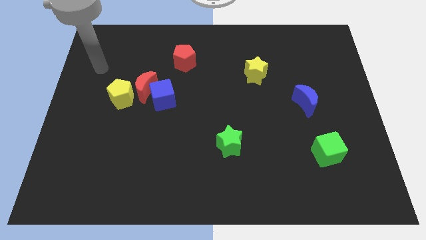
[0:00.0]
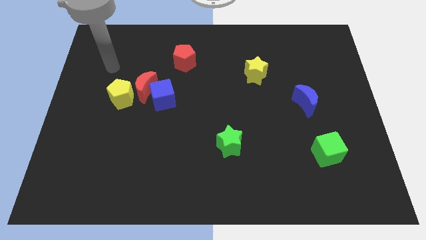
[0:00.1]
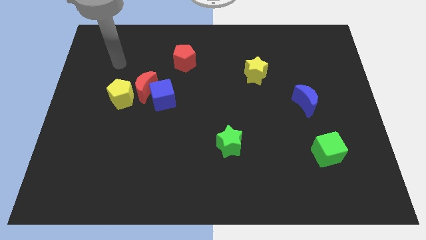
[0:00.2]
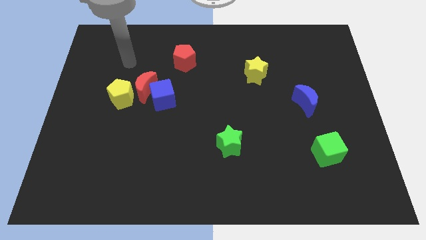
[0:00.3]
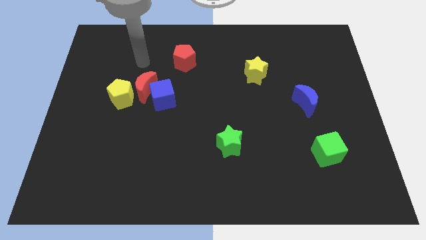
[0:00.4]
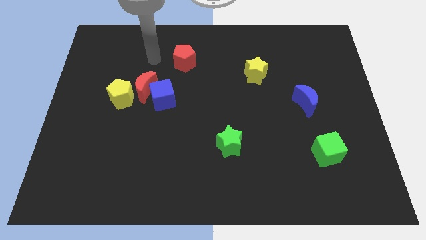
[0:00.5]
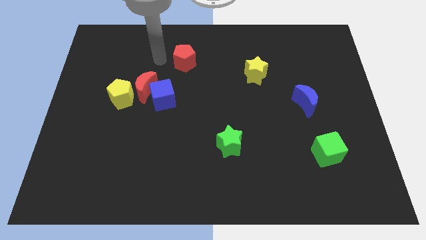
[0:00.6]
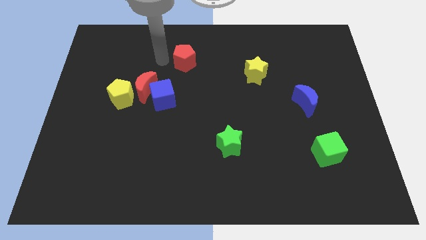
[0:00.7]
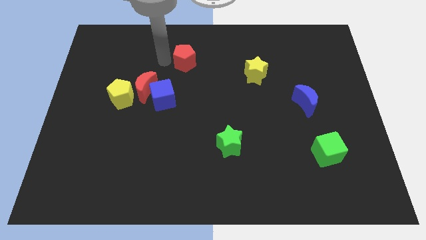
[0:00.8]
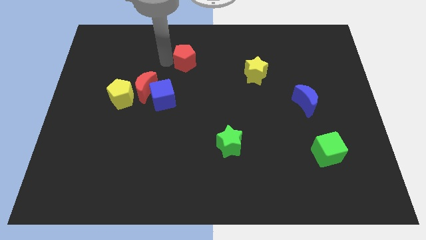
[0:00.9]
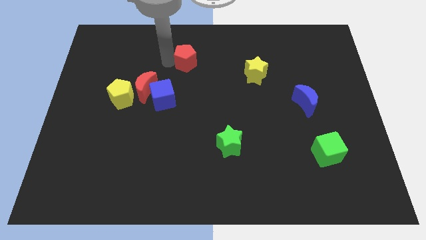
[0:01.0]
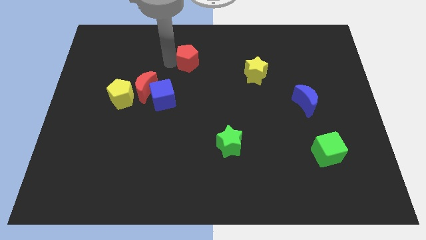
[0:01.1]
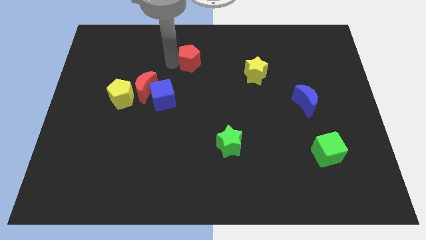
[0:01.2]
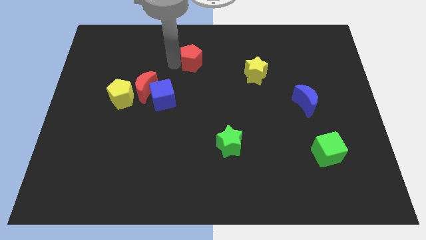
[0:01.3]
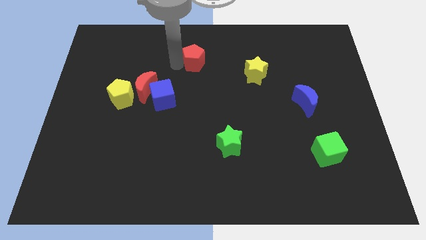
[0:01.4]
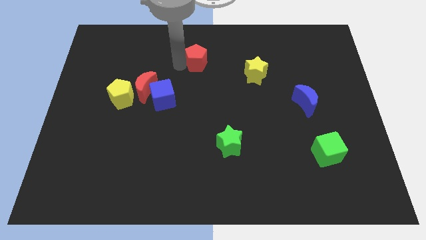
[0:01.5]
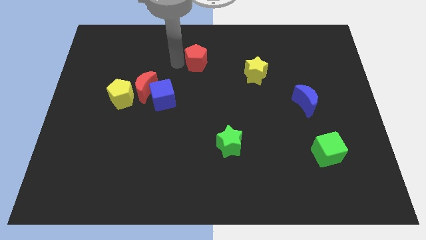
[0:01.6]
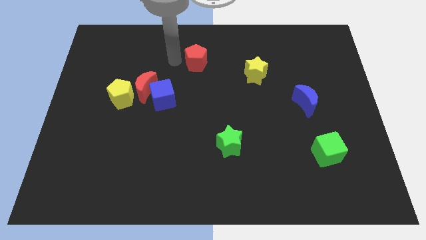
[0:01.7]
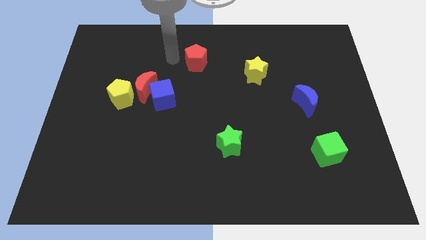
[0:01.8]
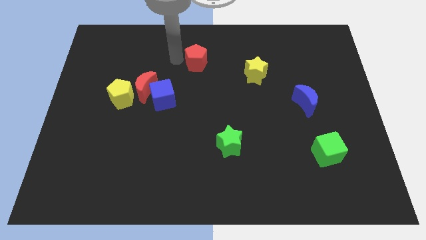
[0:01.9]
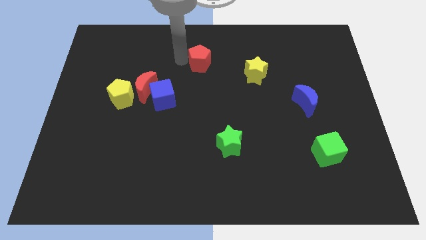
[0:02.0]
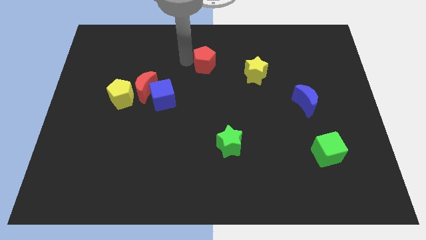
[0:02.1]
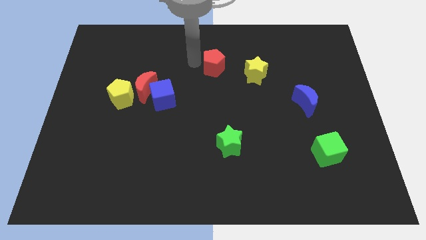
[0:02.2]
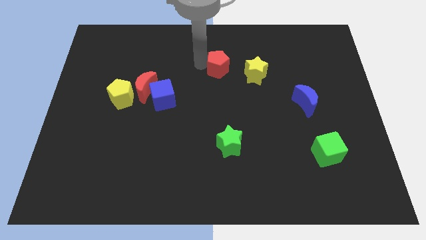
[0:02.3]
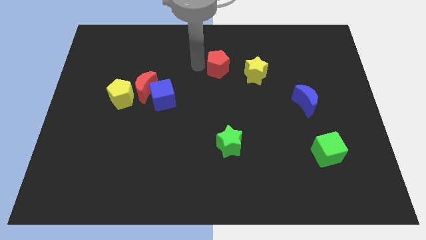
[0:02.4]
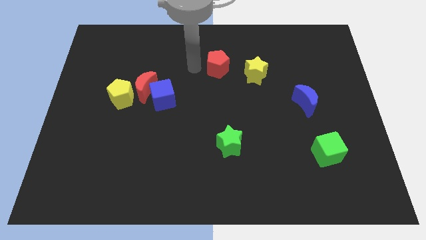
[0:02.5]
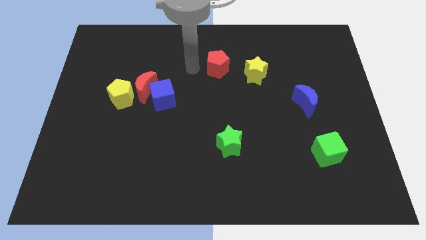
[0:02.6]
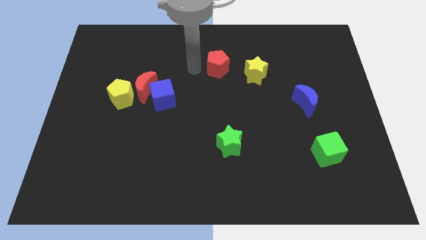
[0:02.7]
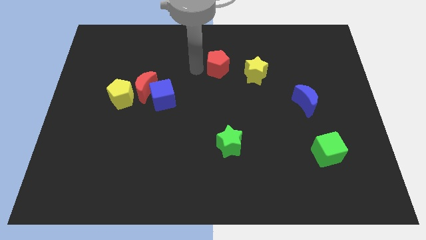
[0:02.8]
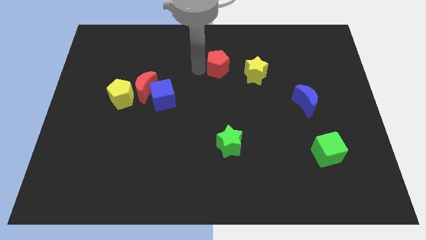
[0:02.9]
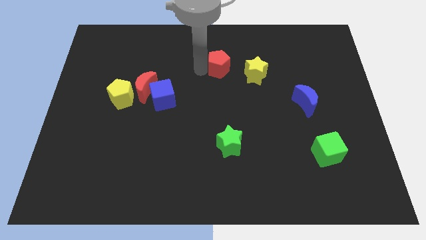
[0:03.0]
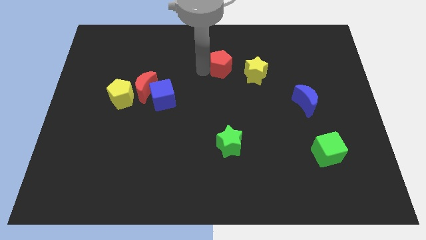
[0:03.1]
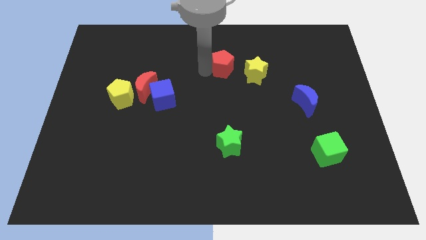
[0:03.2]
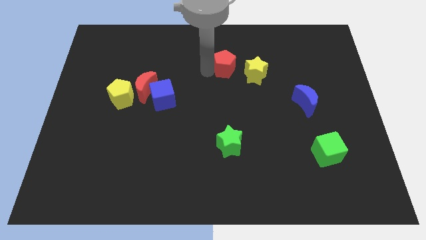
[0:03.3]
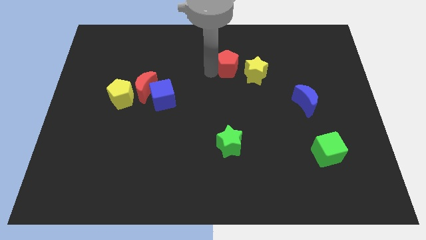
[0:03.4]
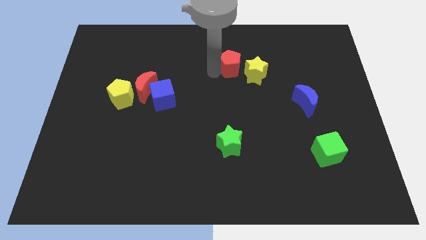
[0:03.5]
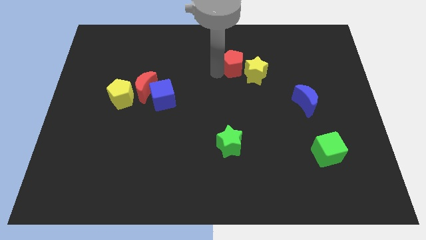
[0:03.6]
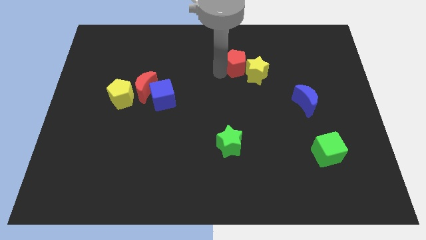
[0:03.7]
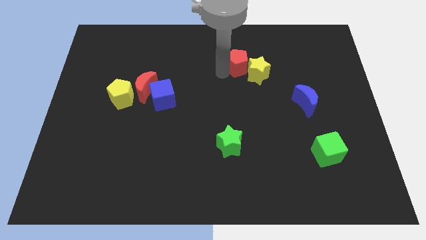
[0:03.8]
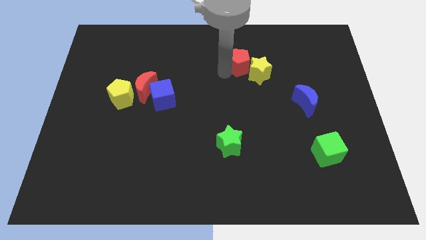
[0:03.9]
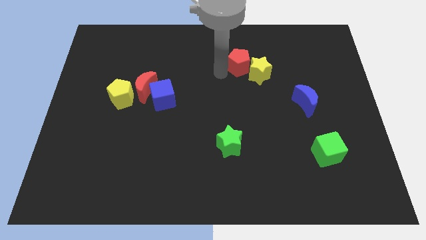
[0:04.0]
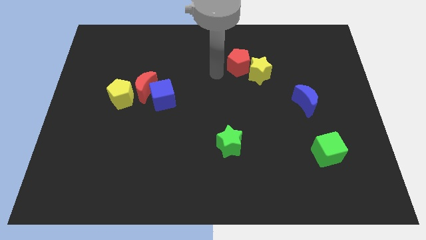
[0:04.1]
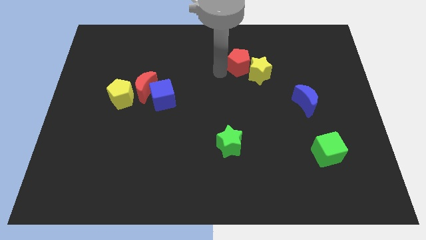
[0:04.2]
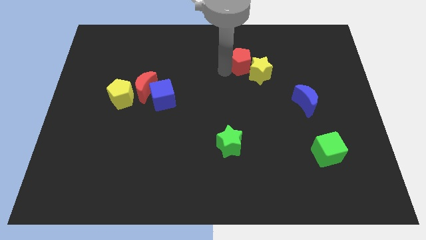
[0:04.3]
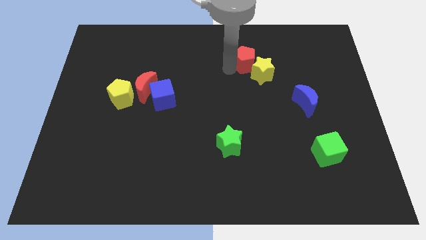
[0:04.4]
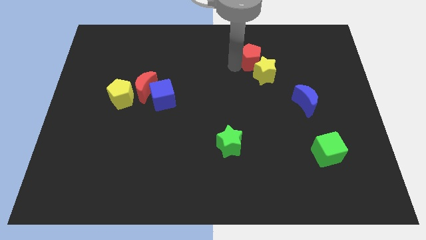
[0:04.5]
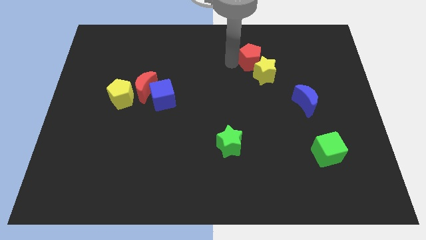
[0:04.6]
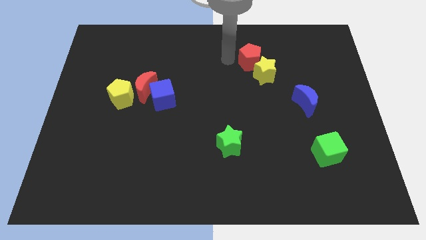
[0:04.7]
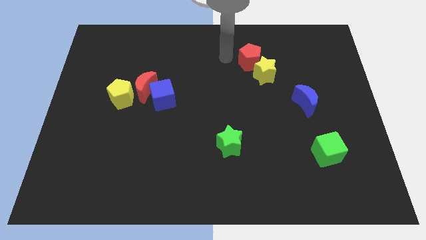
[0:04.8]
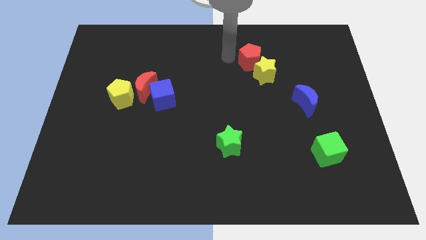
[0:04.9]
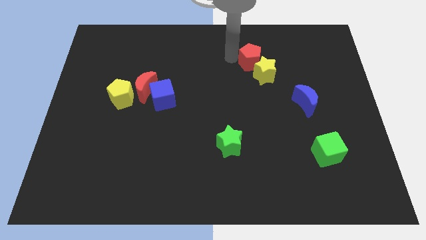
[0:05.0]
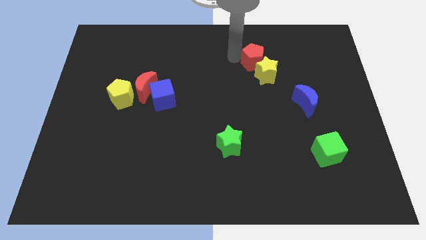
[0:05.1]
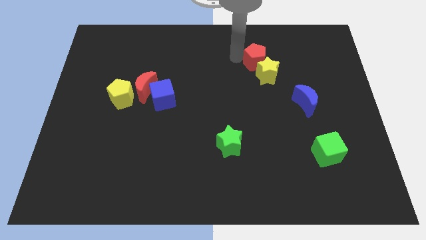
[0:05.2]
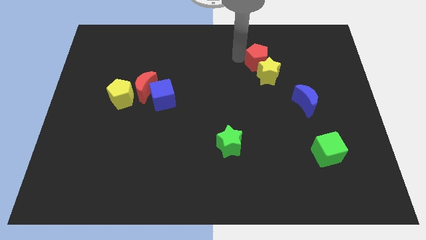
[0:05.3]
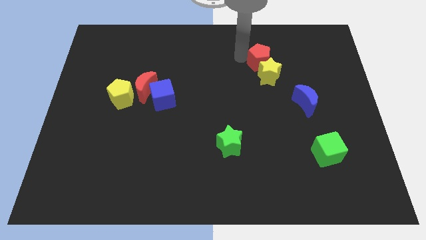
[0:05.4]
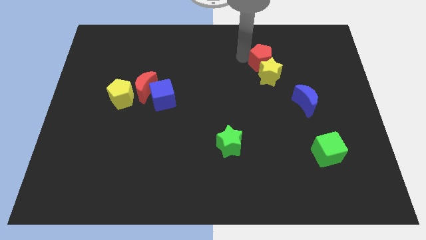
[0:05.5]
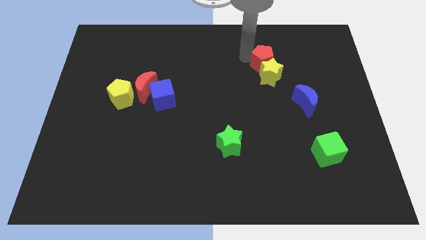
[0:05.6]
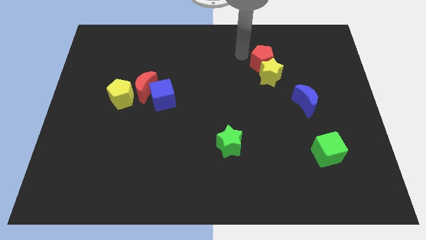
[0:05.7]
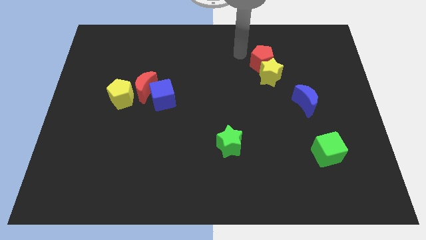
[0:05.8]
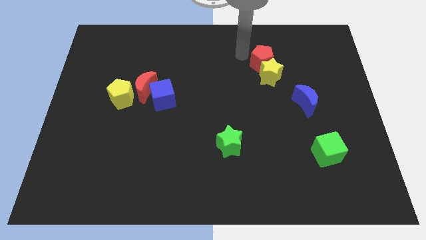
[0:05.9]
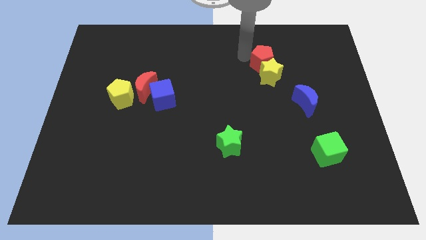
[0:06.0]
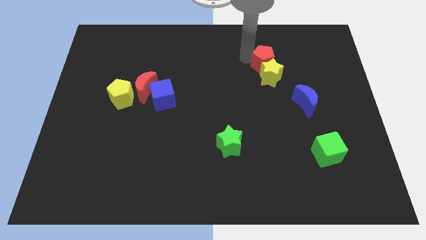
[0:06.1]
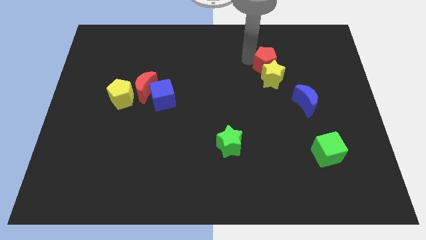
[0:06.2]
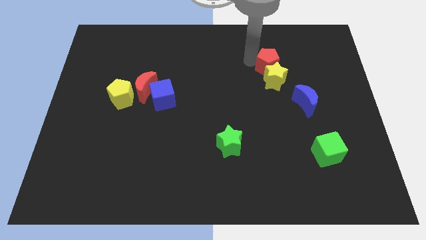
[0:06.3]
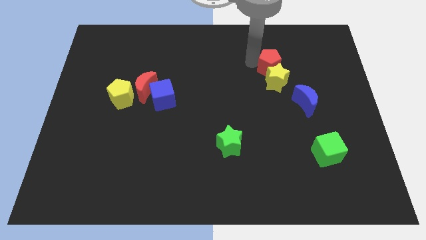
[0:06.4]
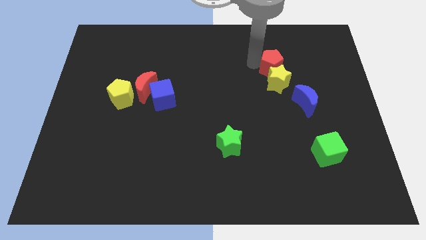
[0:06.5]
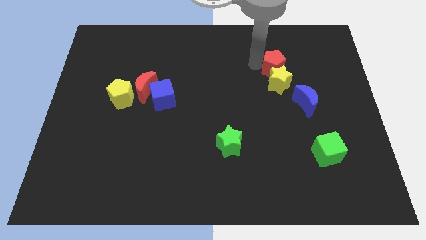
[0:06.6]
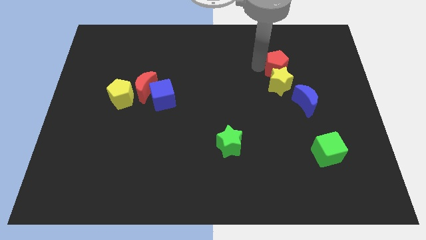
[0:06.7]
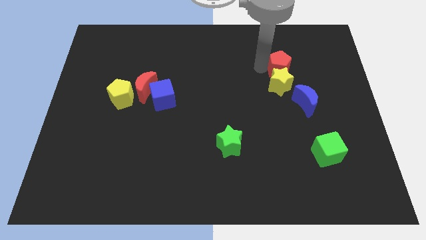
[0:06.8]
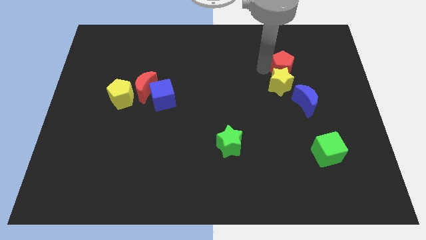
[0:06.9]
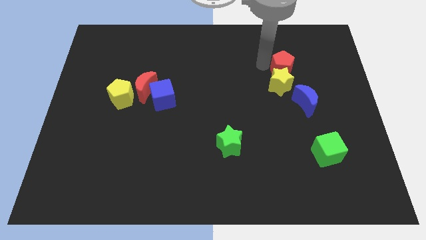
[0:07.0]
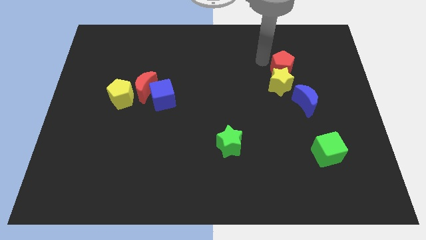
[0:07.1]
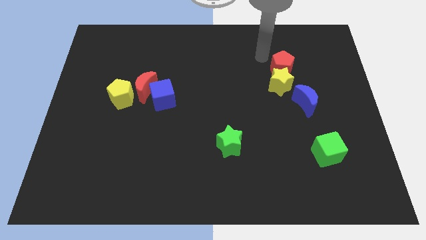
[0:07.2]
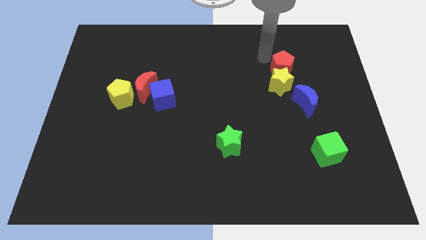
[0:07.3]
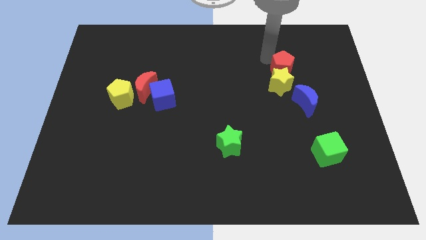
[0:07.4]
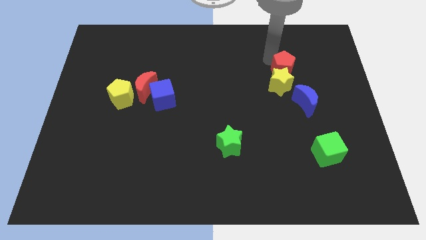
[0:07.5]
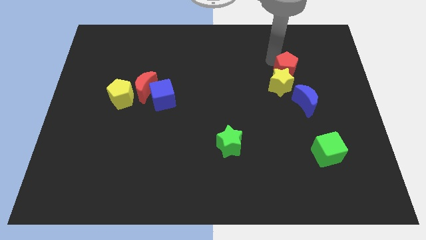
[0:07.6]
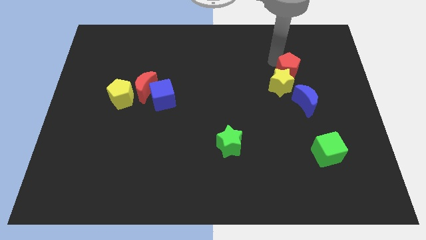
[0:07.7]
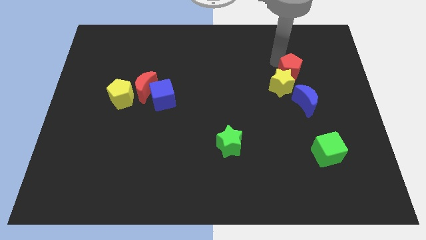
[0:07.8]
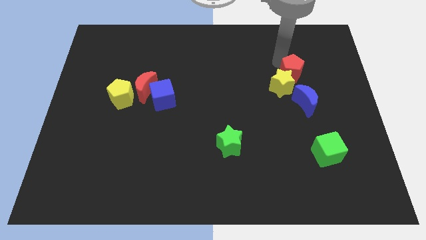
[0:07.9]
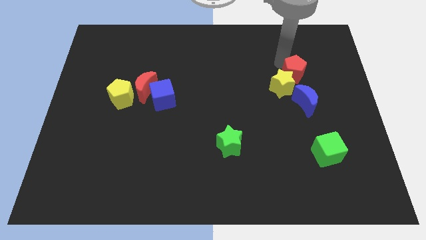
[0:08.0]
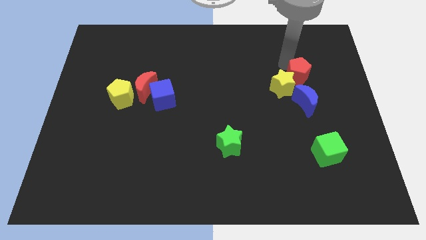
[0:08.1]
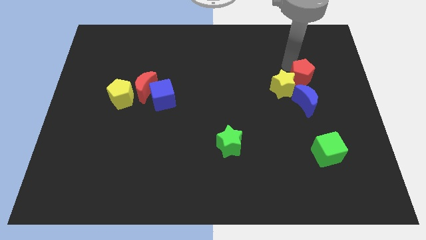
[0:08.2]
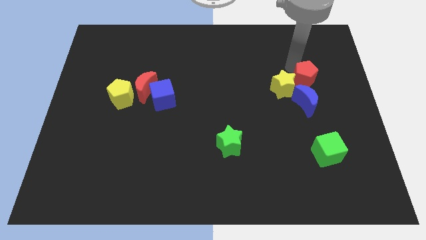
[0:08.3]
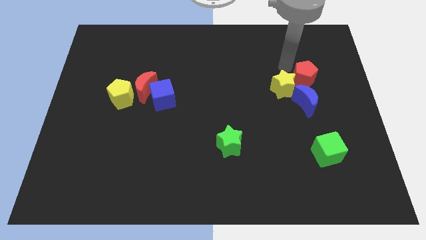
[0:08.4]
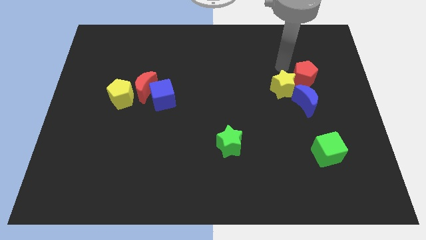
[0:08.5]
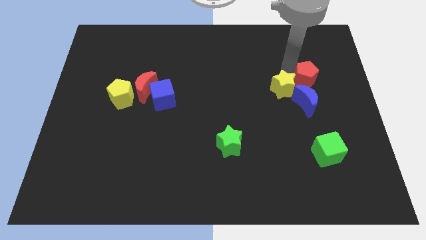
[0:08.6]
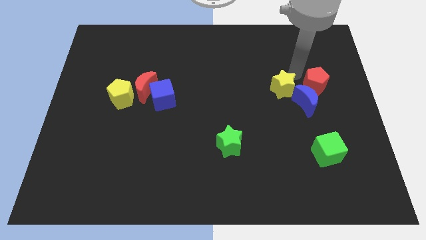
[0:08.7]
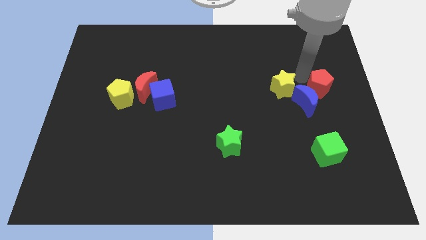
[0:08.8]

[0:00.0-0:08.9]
move the red pentagon to the center right
